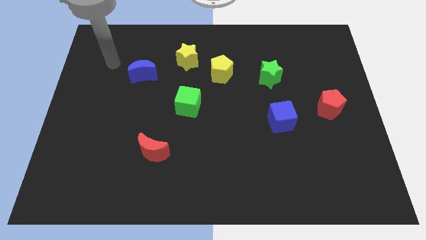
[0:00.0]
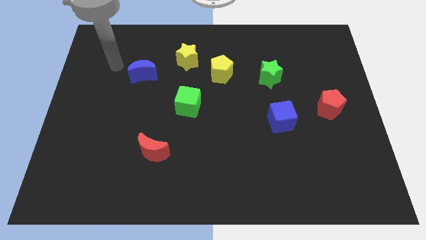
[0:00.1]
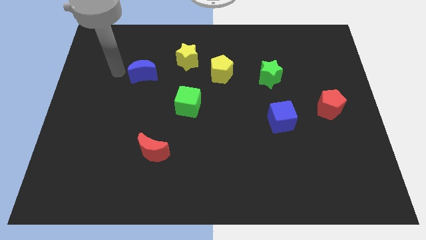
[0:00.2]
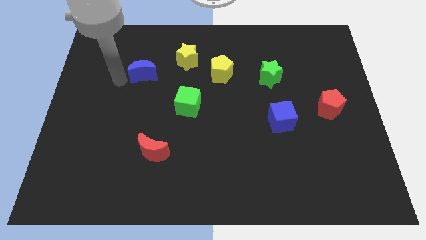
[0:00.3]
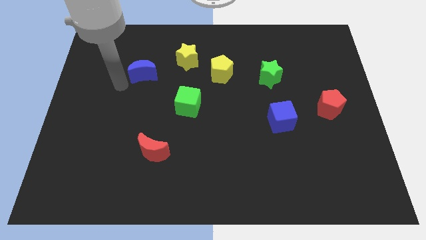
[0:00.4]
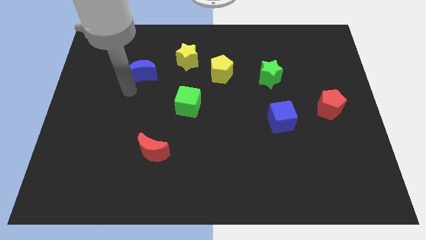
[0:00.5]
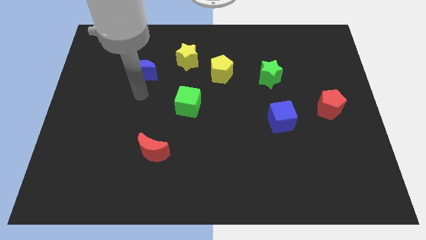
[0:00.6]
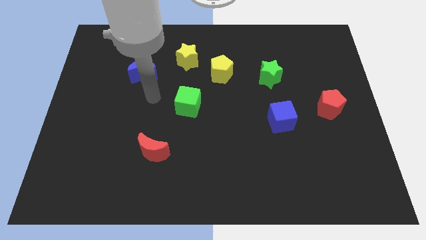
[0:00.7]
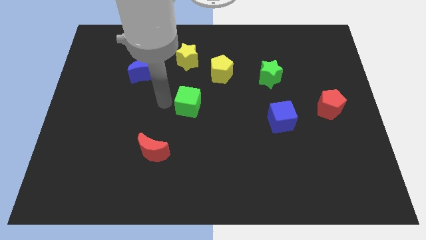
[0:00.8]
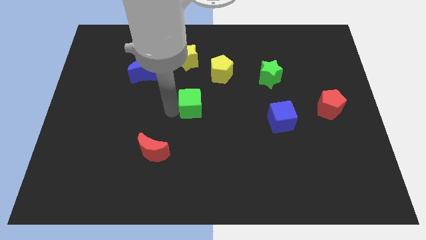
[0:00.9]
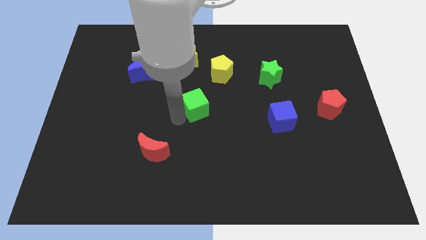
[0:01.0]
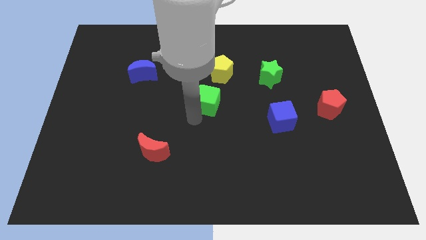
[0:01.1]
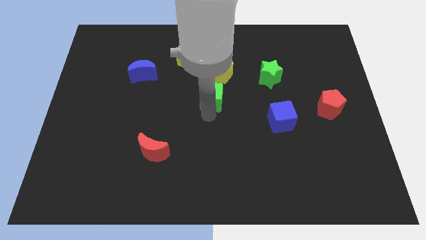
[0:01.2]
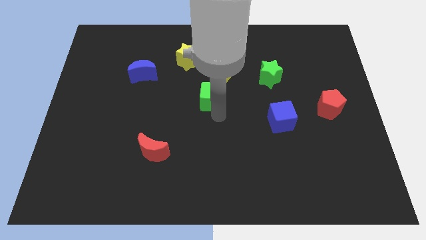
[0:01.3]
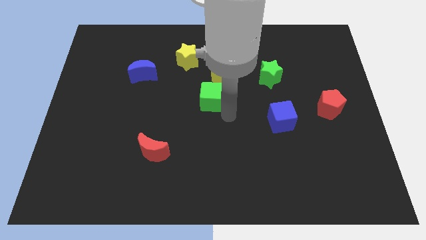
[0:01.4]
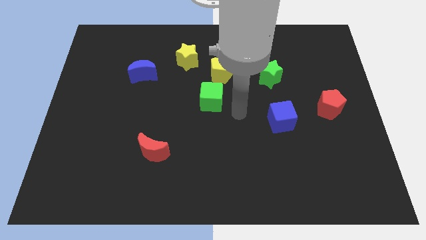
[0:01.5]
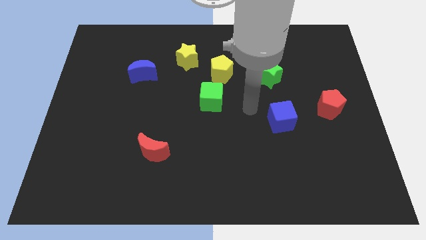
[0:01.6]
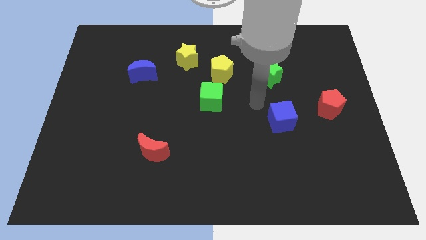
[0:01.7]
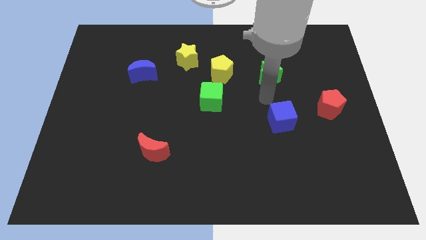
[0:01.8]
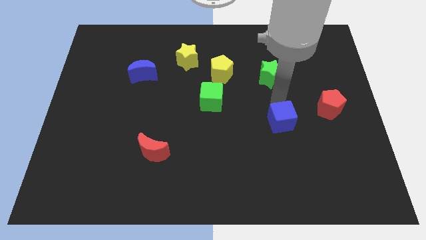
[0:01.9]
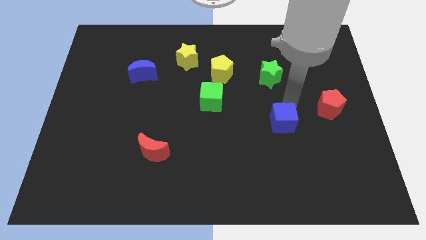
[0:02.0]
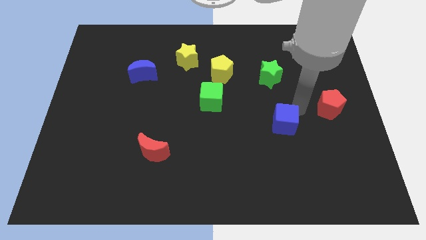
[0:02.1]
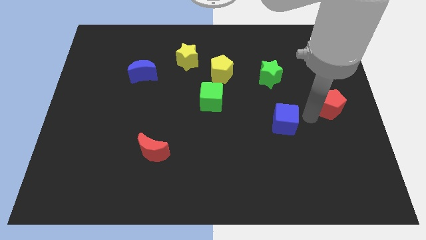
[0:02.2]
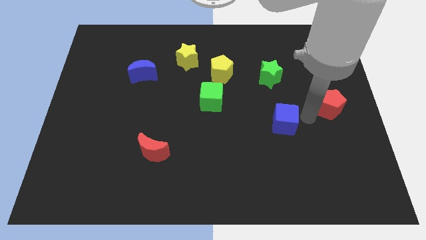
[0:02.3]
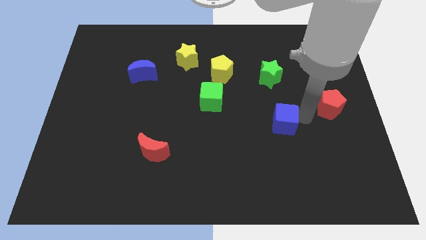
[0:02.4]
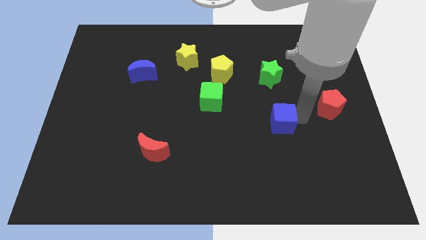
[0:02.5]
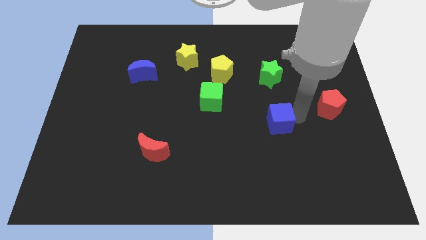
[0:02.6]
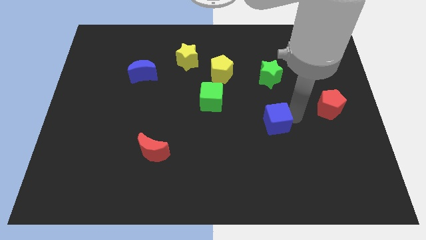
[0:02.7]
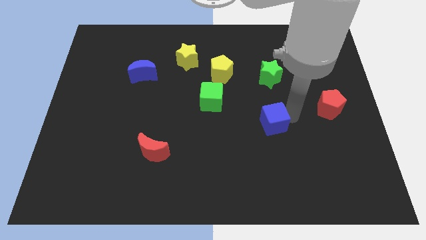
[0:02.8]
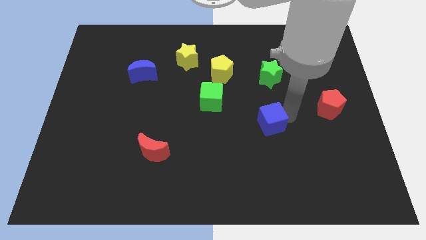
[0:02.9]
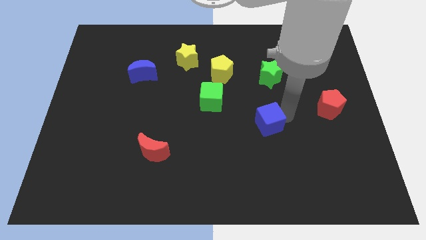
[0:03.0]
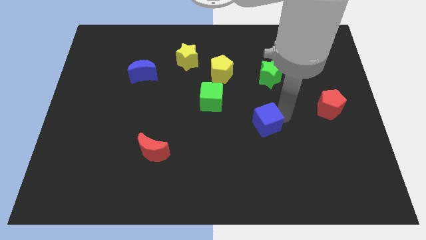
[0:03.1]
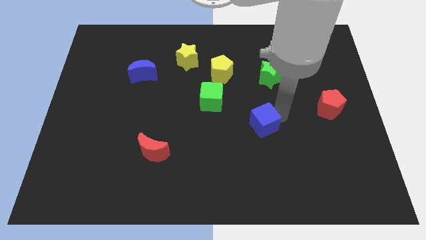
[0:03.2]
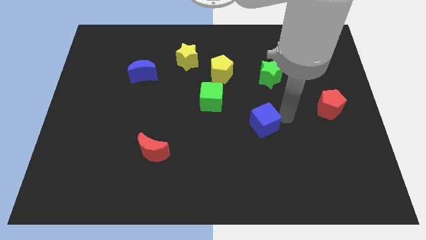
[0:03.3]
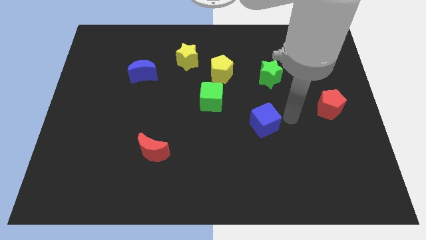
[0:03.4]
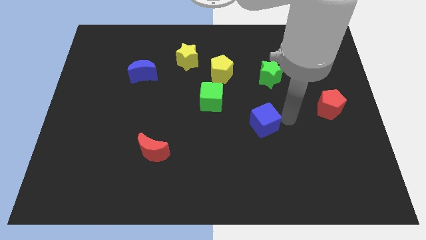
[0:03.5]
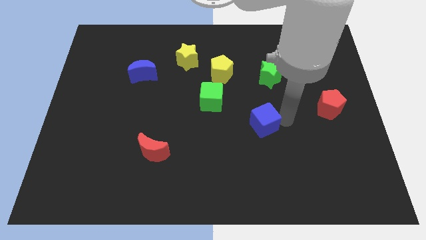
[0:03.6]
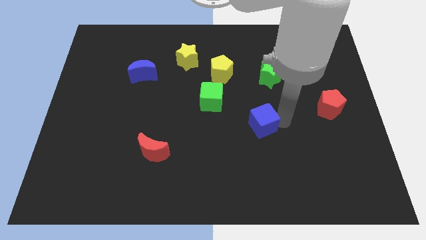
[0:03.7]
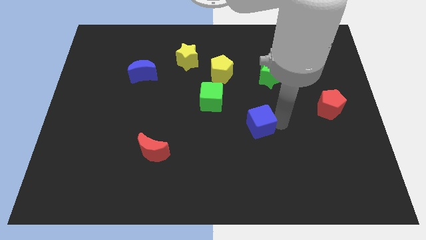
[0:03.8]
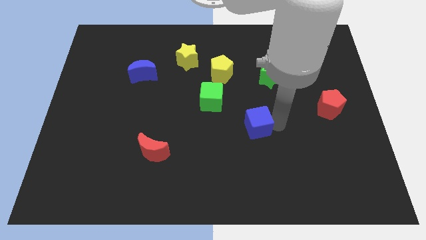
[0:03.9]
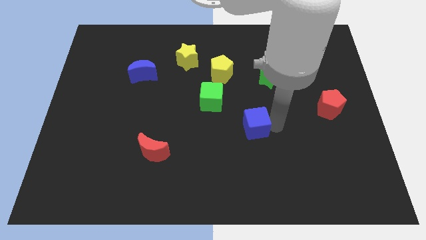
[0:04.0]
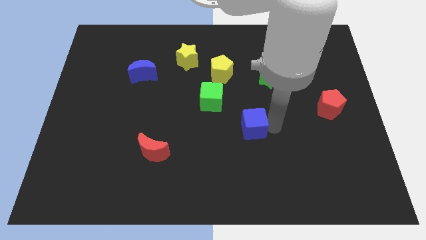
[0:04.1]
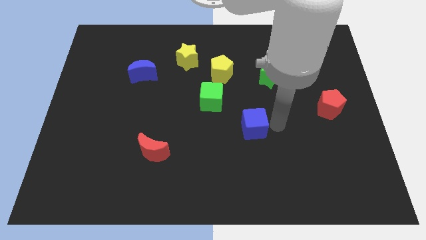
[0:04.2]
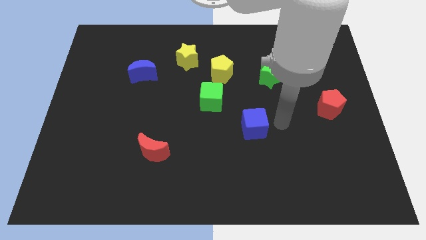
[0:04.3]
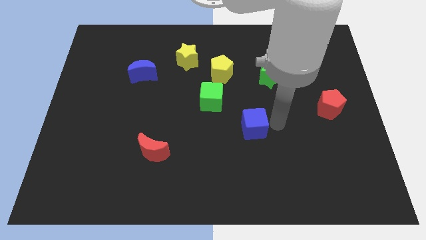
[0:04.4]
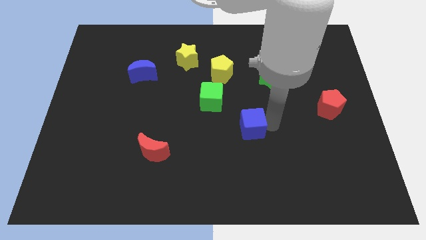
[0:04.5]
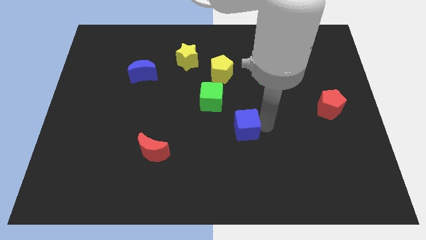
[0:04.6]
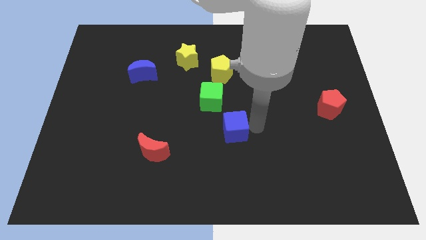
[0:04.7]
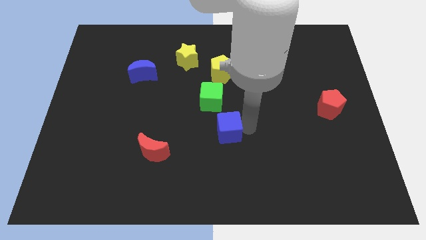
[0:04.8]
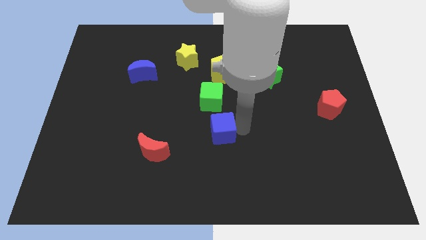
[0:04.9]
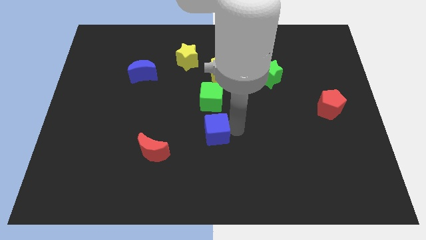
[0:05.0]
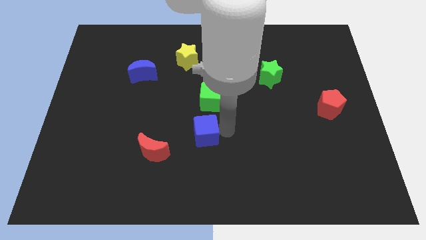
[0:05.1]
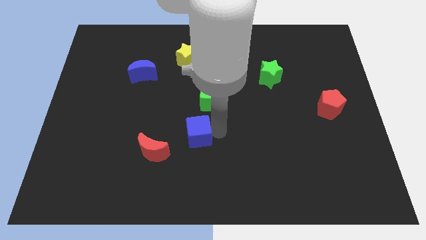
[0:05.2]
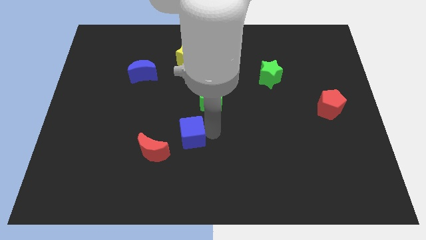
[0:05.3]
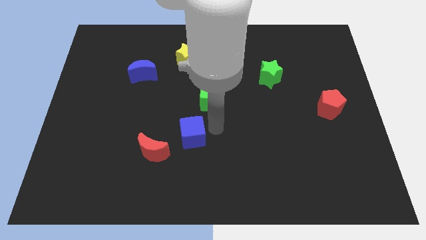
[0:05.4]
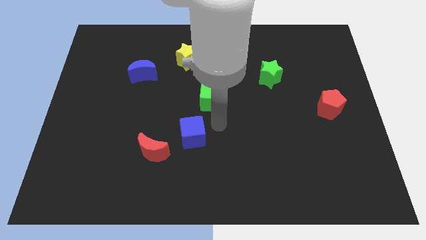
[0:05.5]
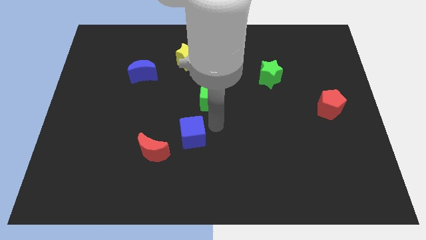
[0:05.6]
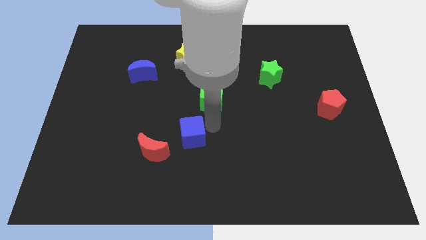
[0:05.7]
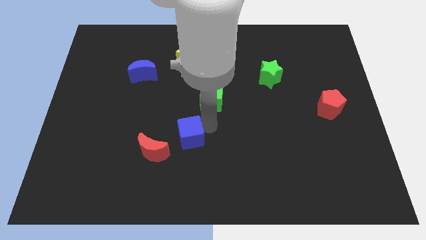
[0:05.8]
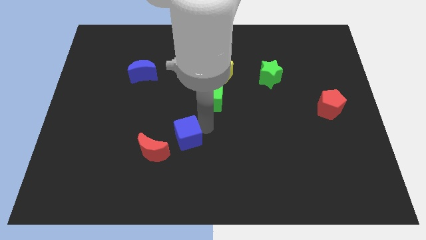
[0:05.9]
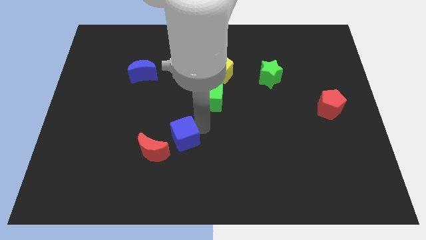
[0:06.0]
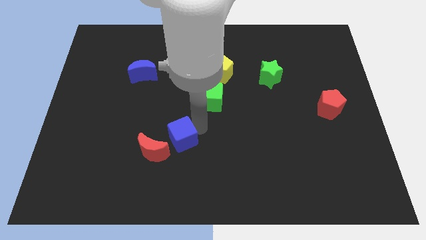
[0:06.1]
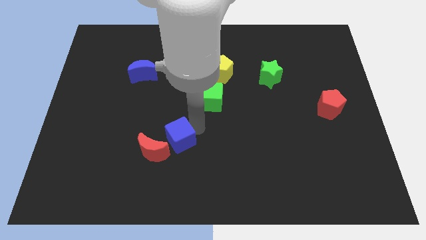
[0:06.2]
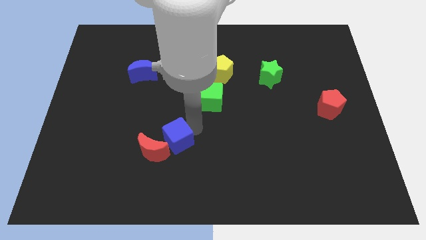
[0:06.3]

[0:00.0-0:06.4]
slide the blue cube next to the red moon

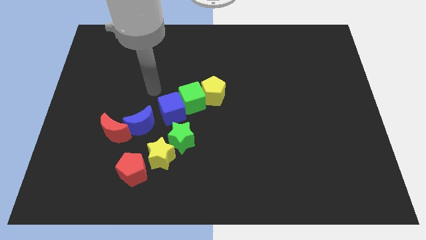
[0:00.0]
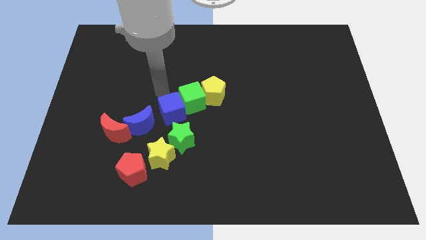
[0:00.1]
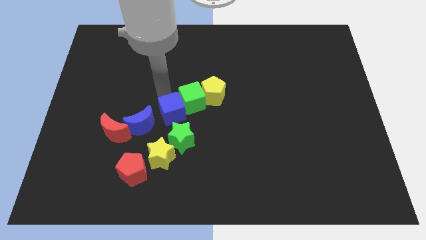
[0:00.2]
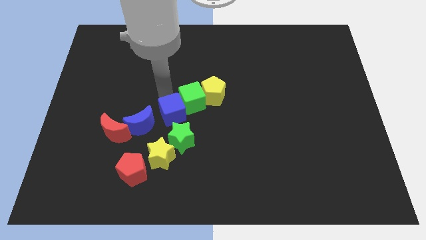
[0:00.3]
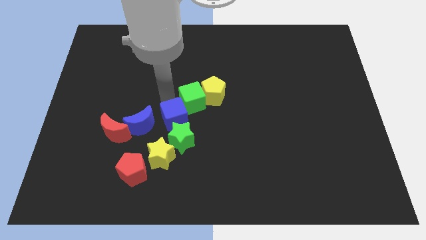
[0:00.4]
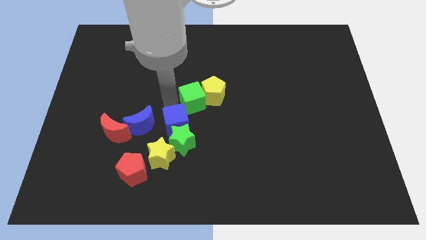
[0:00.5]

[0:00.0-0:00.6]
put the blue cube close to the green star
